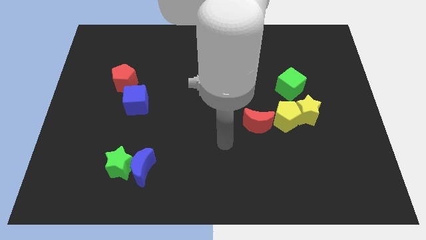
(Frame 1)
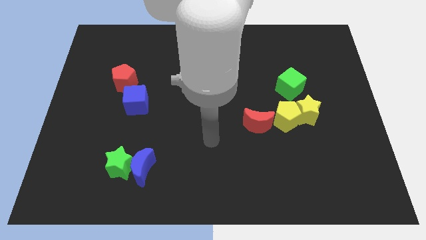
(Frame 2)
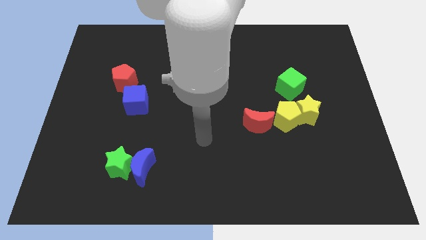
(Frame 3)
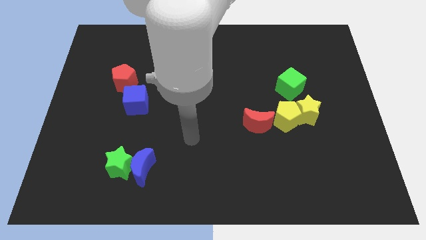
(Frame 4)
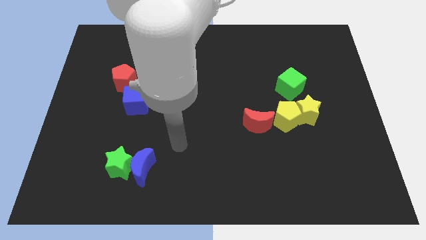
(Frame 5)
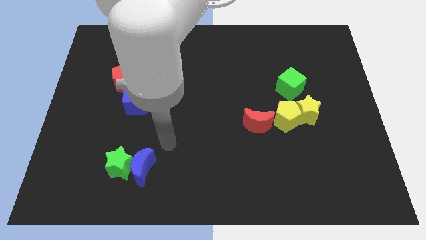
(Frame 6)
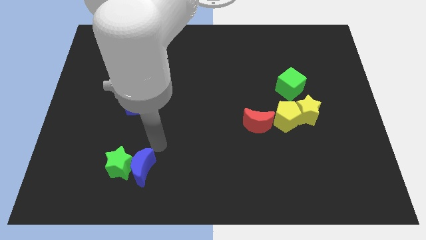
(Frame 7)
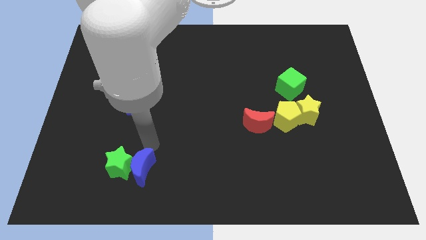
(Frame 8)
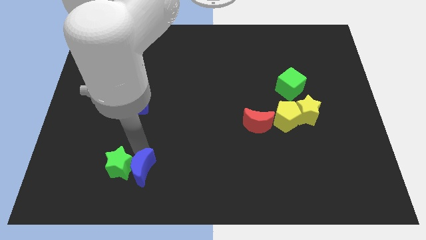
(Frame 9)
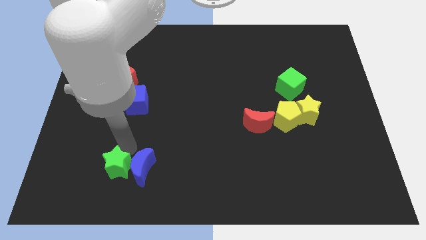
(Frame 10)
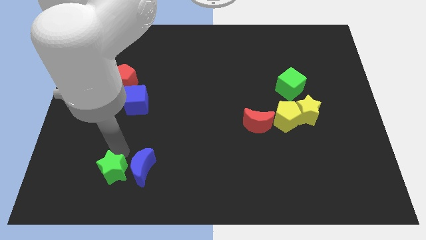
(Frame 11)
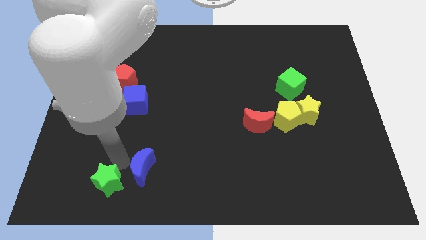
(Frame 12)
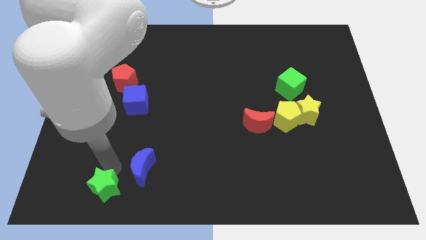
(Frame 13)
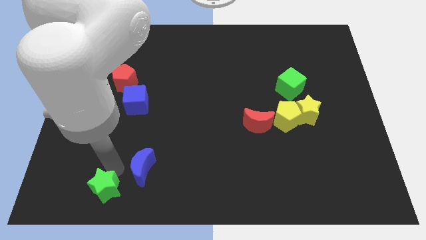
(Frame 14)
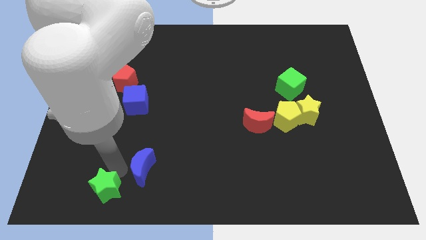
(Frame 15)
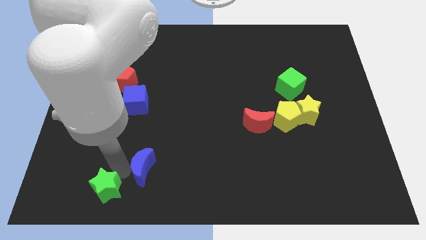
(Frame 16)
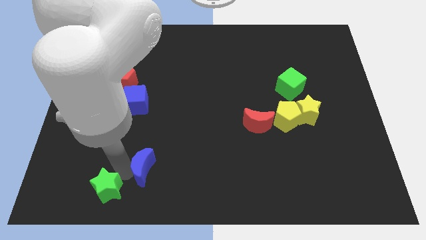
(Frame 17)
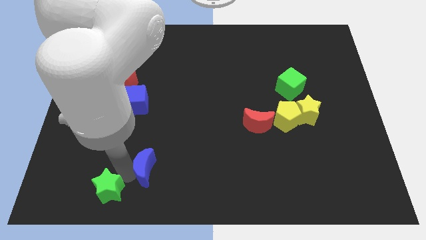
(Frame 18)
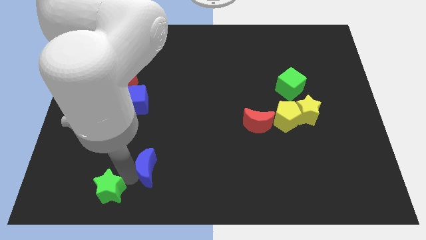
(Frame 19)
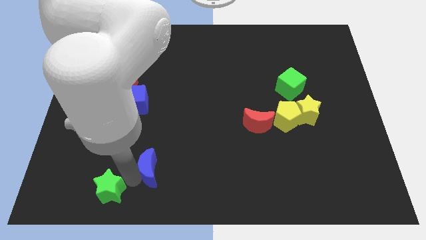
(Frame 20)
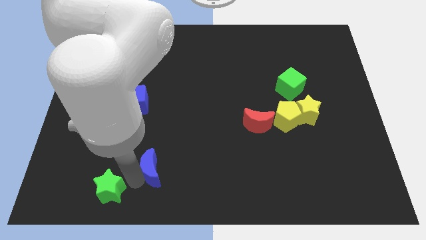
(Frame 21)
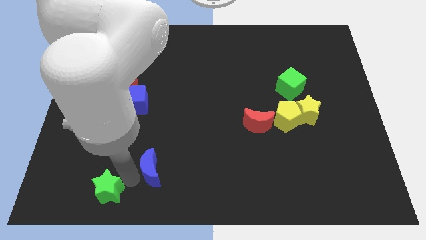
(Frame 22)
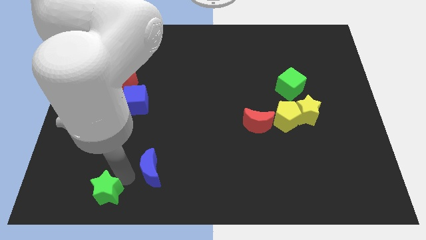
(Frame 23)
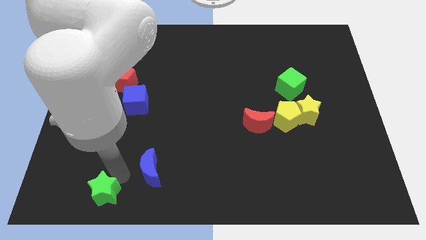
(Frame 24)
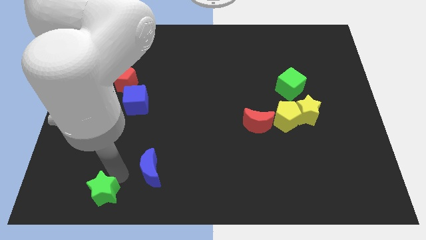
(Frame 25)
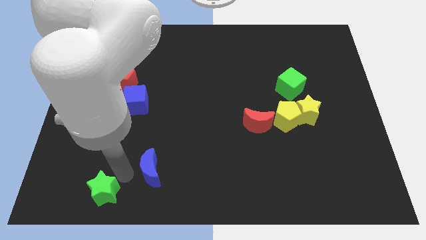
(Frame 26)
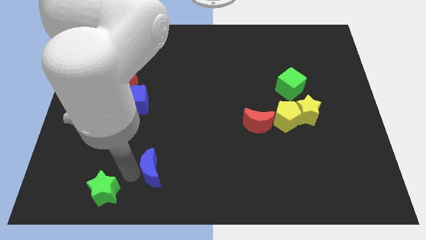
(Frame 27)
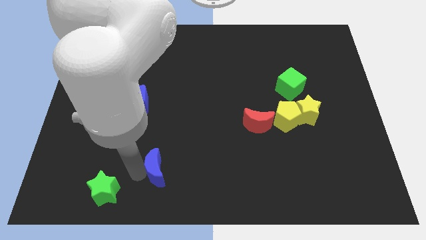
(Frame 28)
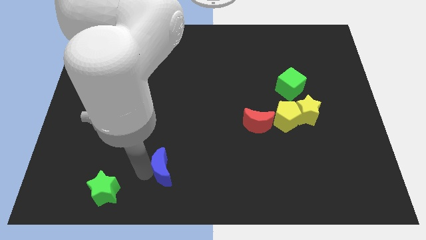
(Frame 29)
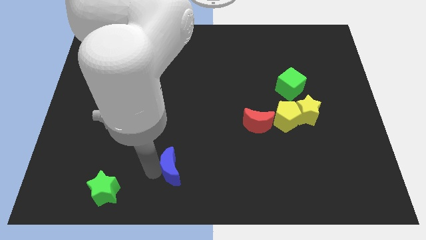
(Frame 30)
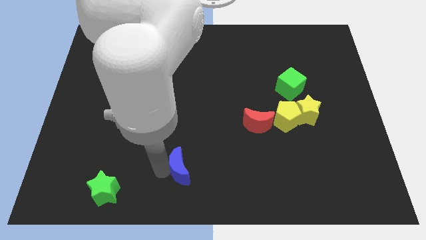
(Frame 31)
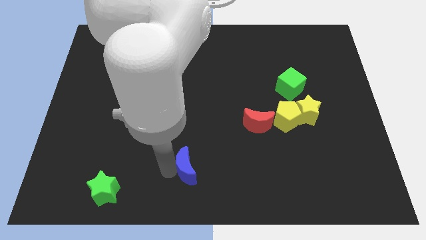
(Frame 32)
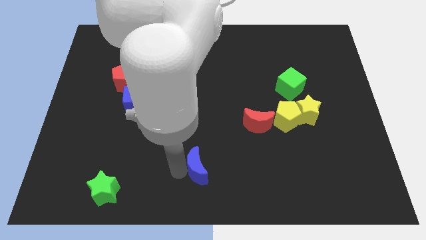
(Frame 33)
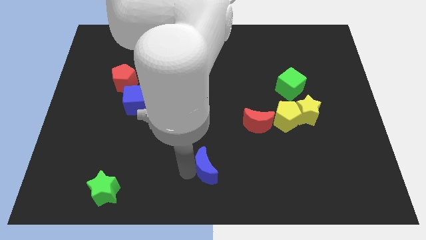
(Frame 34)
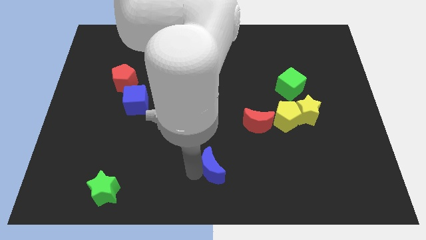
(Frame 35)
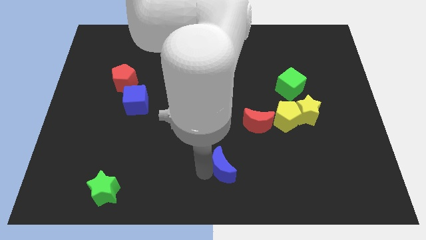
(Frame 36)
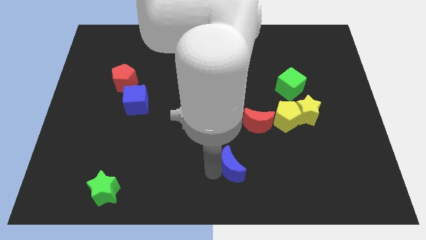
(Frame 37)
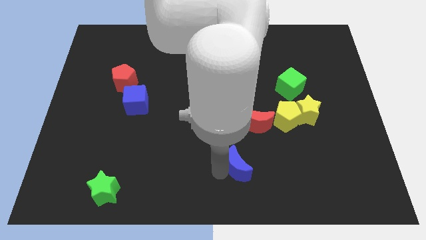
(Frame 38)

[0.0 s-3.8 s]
slide the blue moon to the right

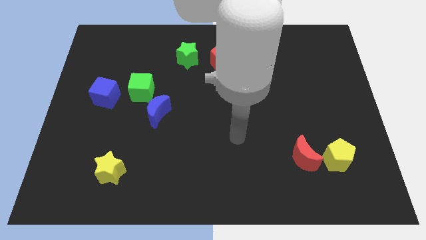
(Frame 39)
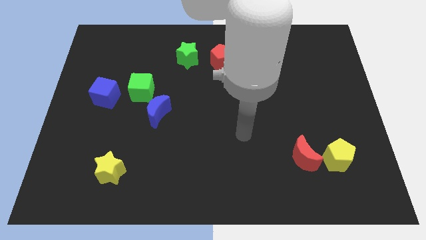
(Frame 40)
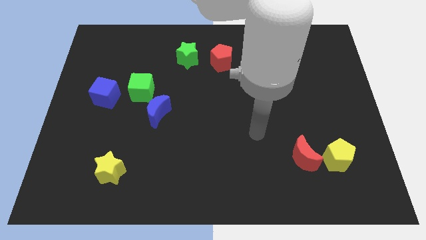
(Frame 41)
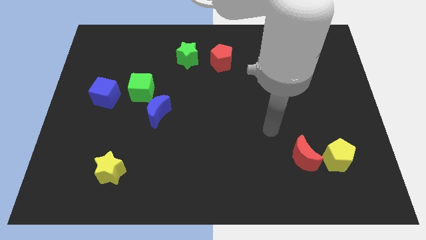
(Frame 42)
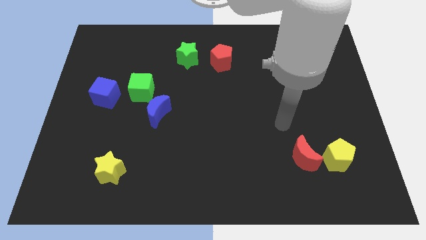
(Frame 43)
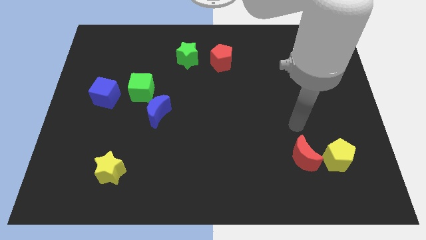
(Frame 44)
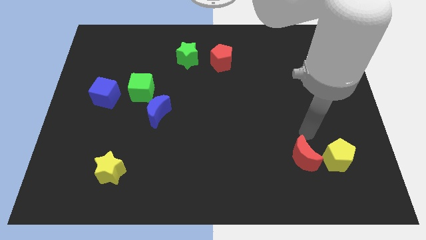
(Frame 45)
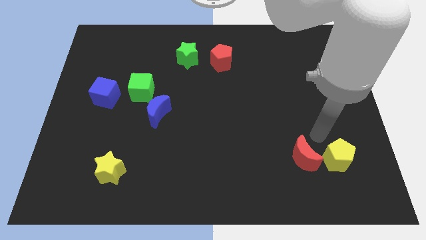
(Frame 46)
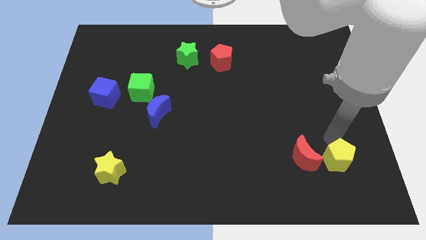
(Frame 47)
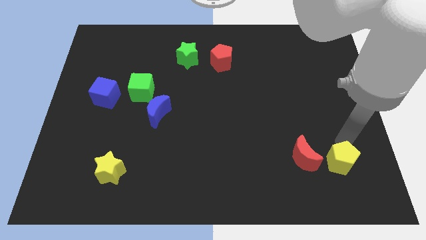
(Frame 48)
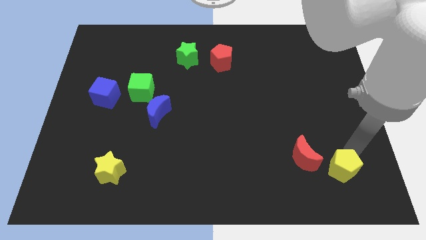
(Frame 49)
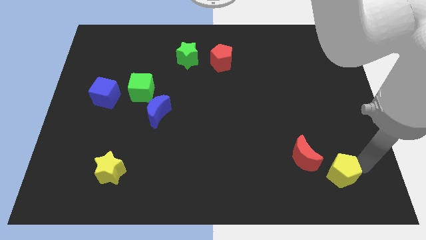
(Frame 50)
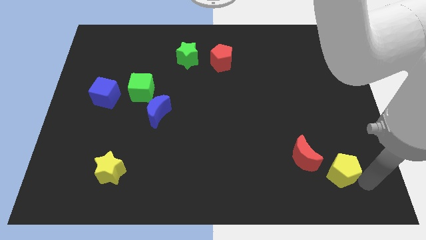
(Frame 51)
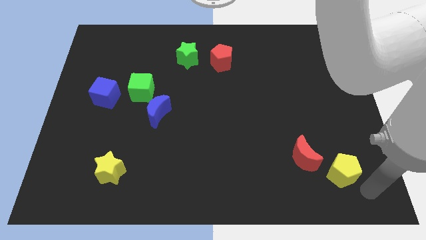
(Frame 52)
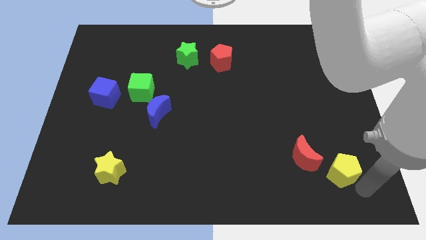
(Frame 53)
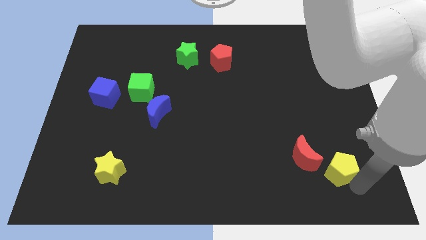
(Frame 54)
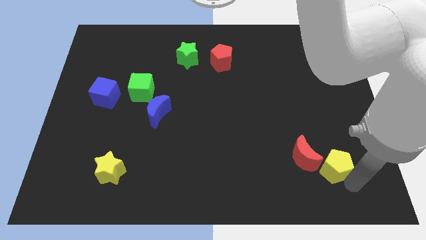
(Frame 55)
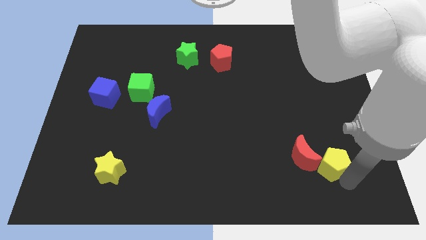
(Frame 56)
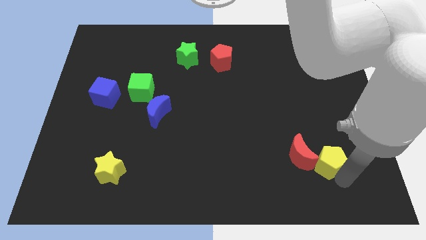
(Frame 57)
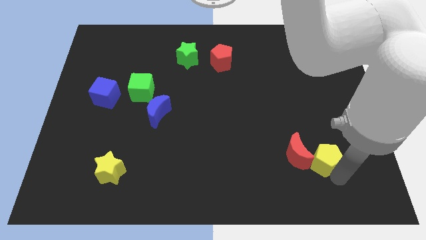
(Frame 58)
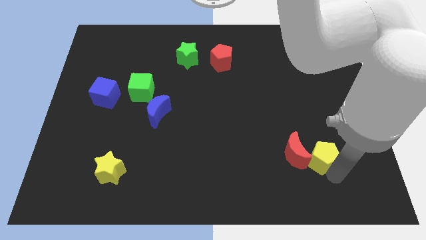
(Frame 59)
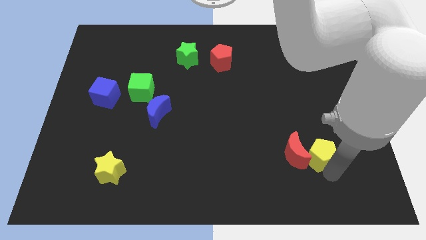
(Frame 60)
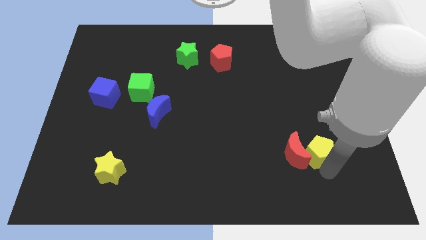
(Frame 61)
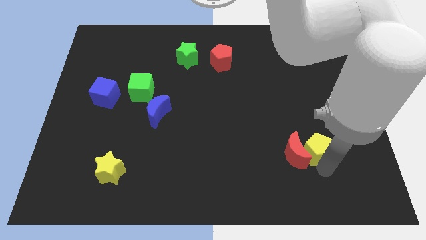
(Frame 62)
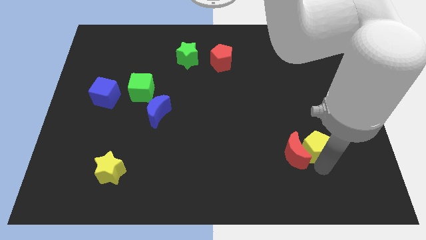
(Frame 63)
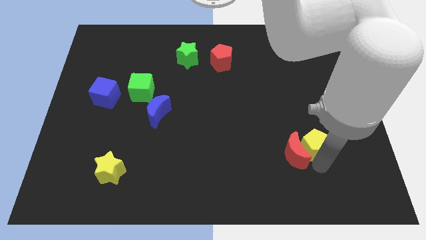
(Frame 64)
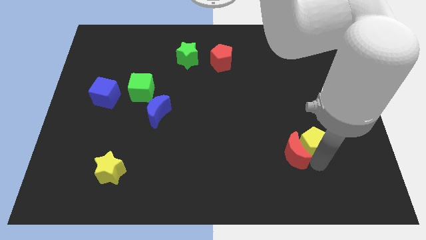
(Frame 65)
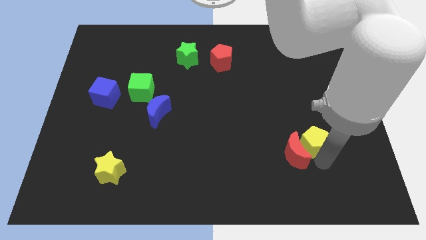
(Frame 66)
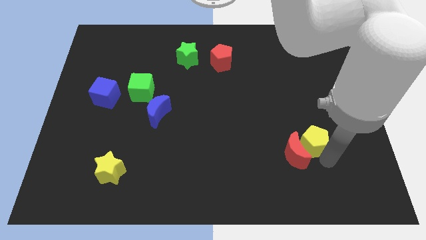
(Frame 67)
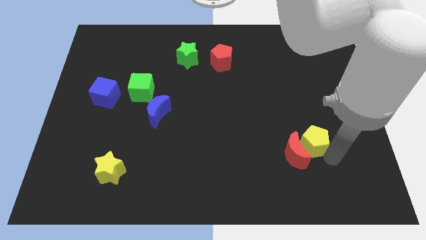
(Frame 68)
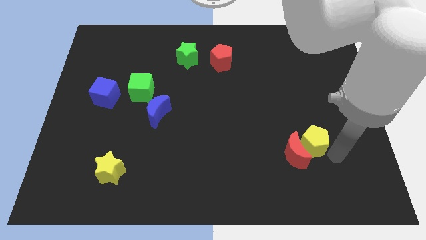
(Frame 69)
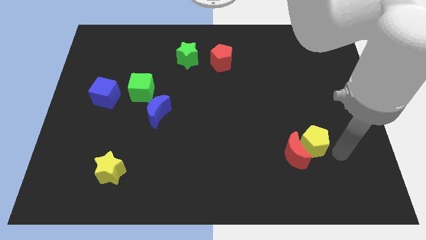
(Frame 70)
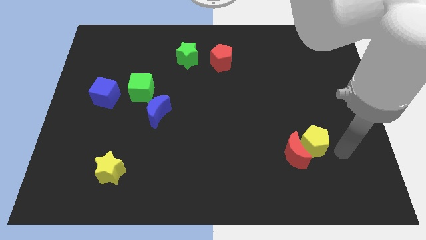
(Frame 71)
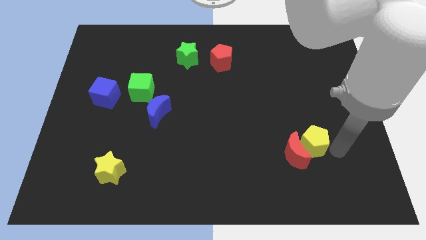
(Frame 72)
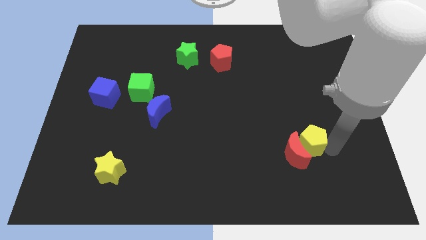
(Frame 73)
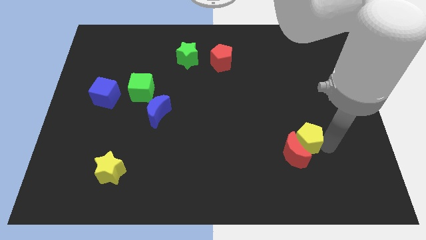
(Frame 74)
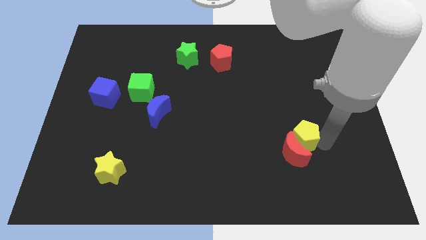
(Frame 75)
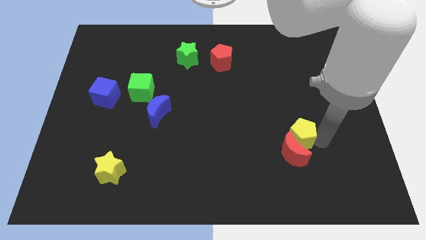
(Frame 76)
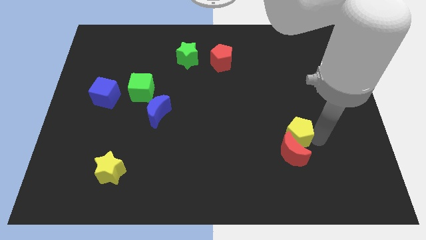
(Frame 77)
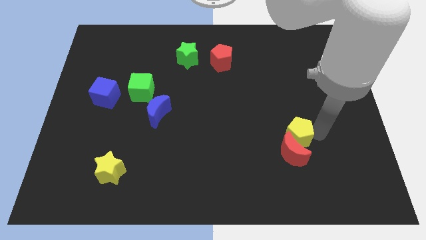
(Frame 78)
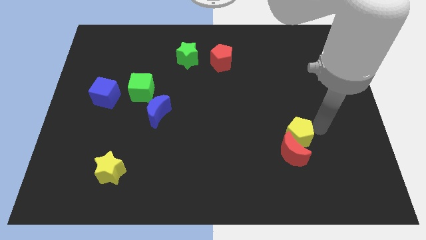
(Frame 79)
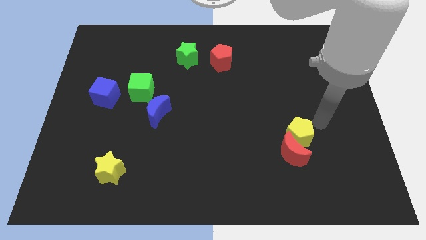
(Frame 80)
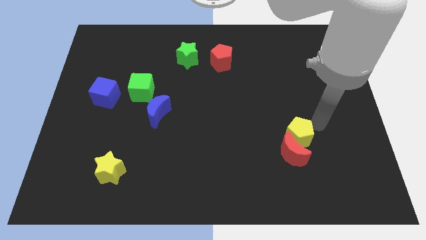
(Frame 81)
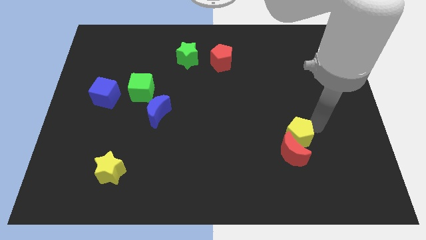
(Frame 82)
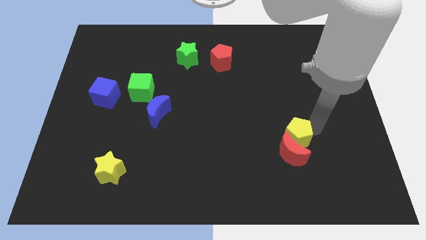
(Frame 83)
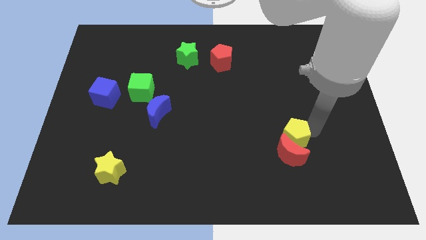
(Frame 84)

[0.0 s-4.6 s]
move the yellow pentagon left slightly

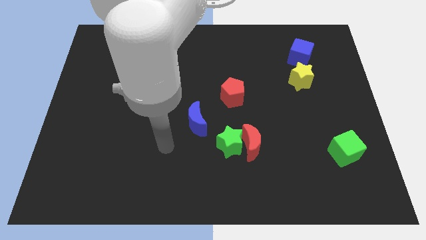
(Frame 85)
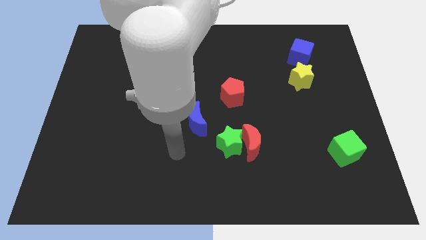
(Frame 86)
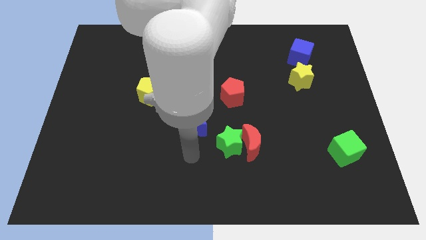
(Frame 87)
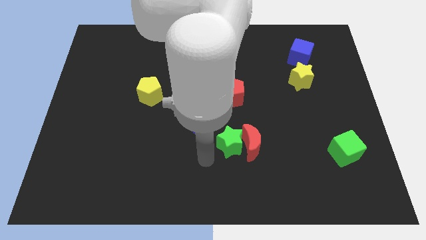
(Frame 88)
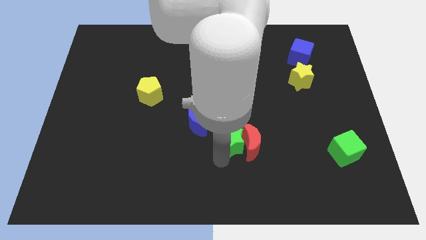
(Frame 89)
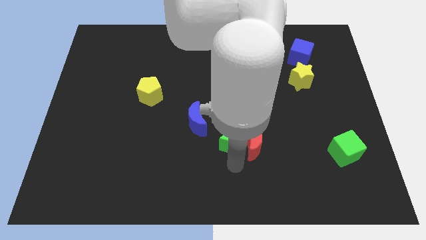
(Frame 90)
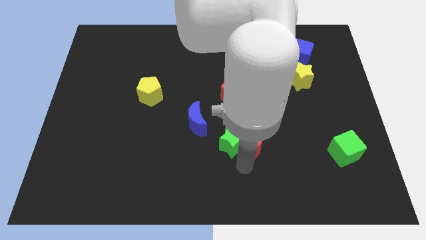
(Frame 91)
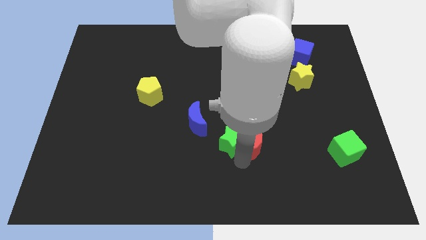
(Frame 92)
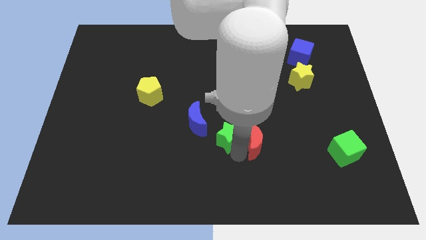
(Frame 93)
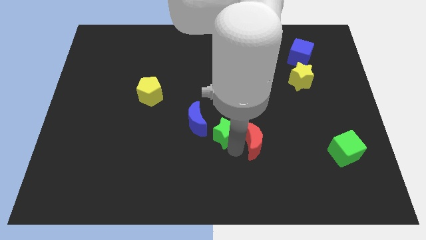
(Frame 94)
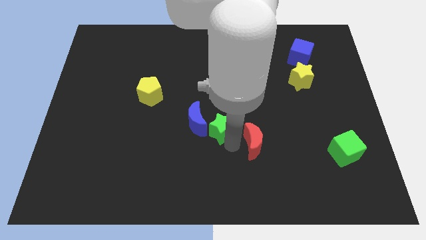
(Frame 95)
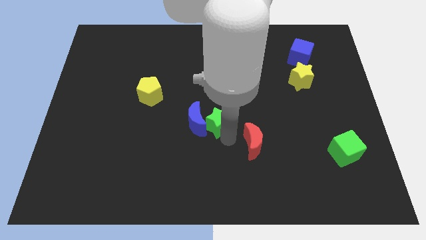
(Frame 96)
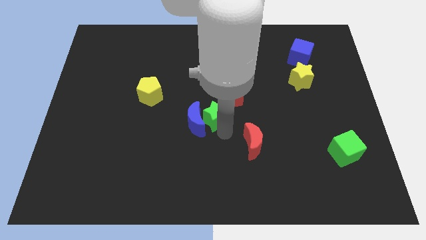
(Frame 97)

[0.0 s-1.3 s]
slide the green star upwards and then to the left a little bit
